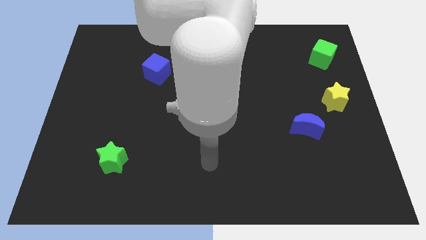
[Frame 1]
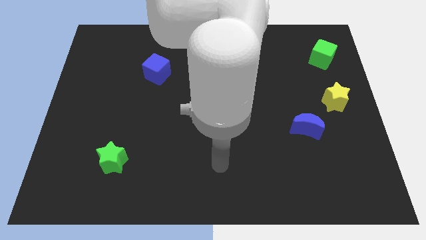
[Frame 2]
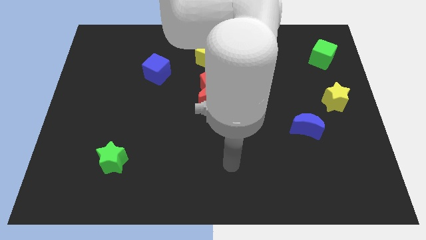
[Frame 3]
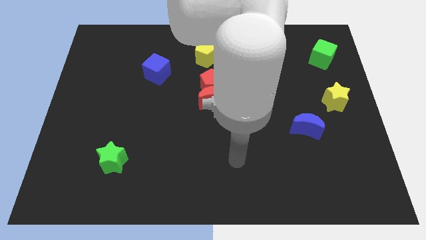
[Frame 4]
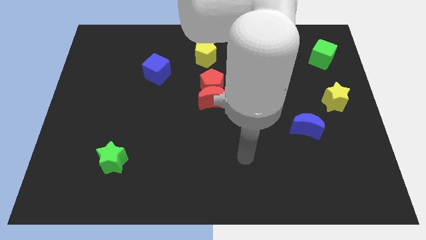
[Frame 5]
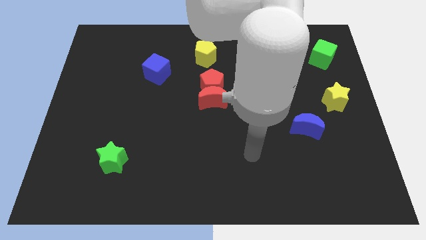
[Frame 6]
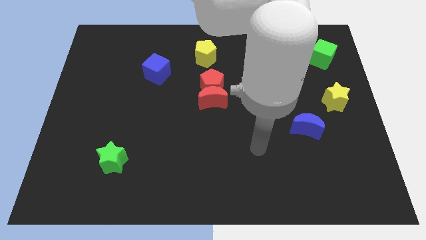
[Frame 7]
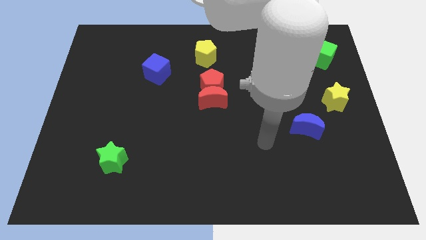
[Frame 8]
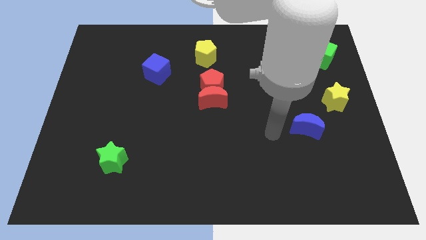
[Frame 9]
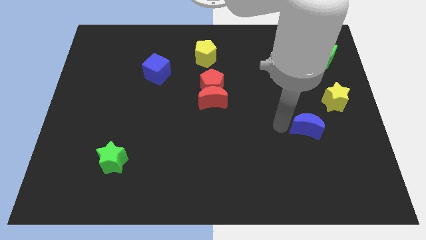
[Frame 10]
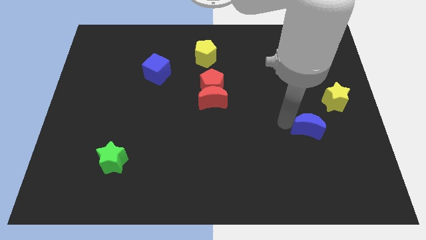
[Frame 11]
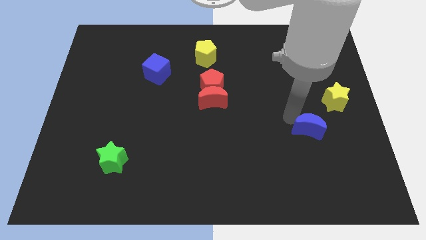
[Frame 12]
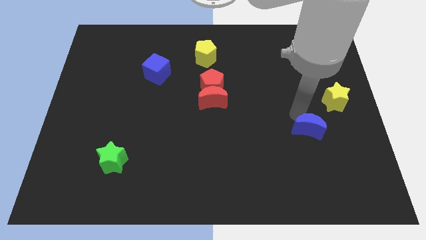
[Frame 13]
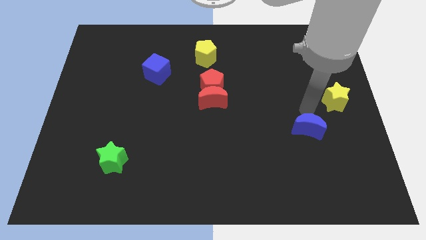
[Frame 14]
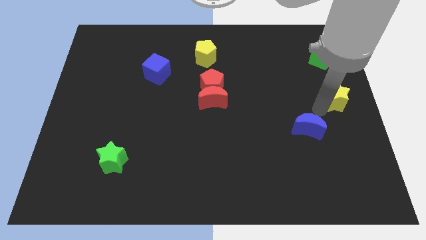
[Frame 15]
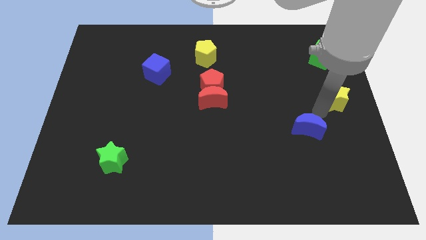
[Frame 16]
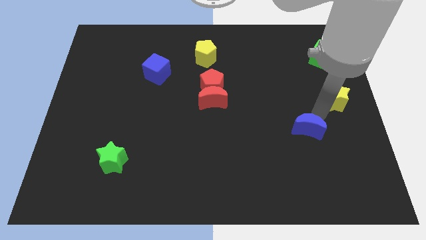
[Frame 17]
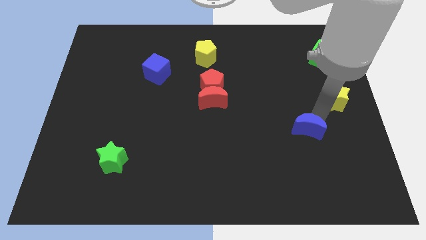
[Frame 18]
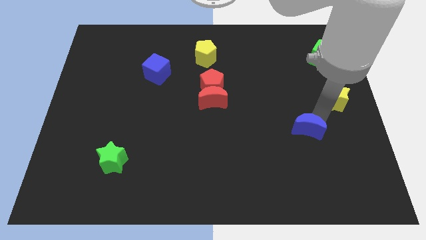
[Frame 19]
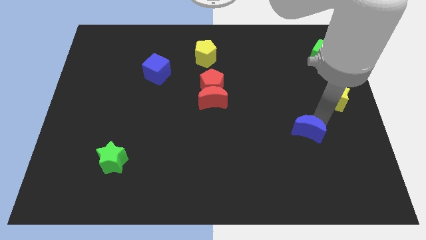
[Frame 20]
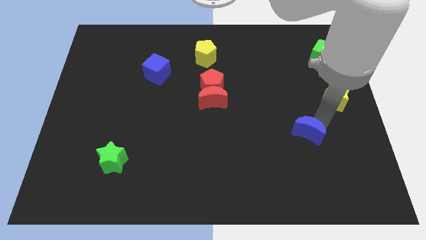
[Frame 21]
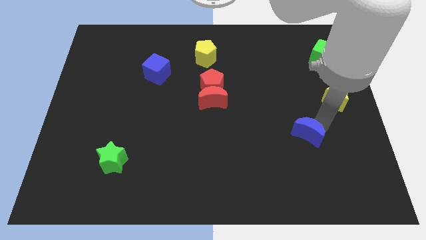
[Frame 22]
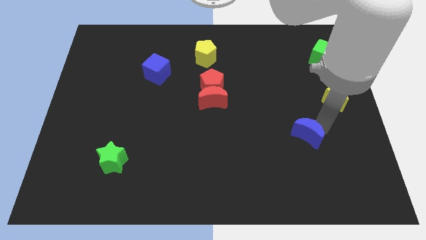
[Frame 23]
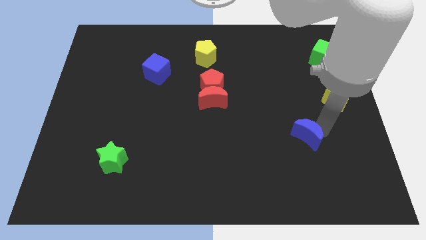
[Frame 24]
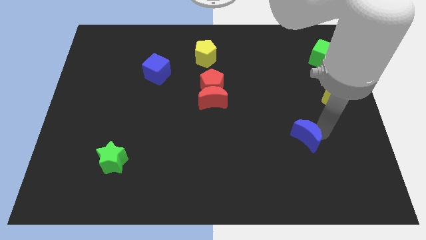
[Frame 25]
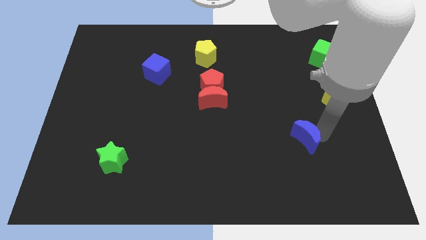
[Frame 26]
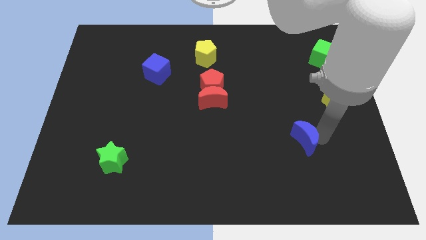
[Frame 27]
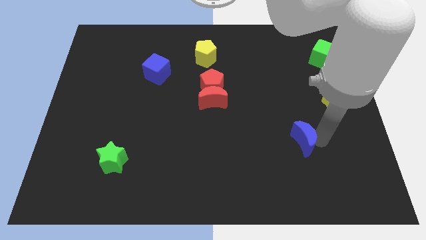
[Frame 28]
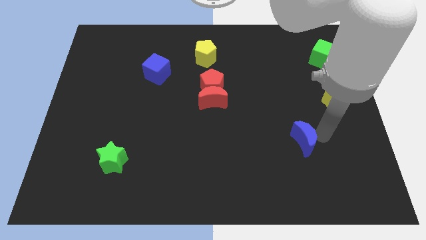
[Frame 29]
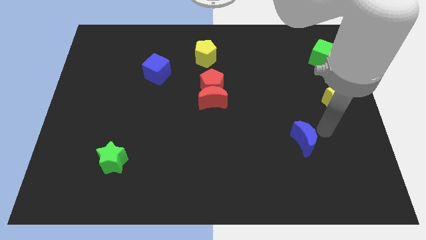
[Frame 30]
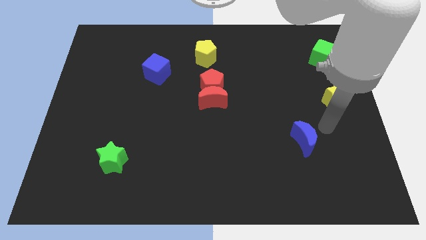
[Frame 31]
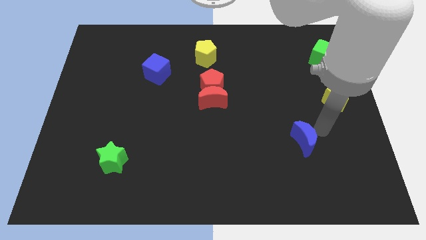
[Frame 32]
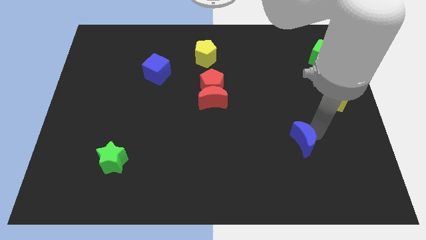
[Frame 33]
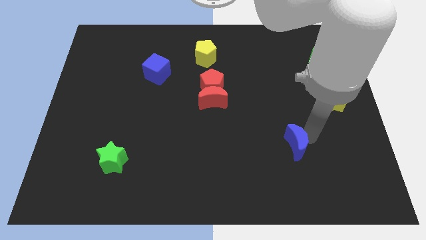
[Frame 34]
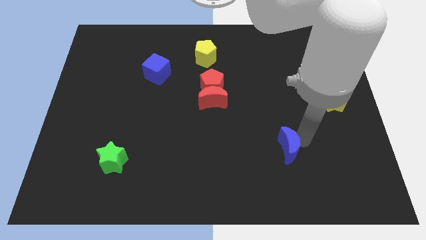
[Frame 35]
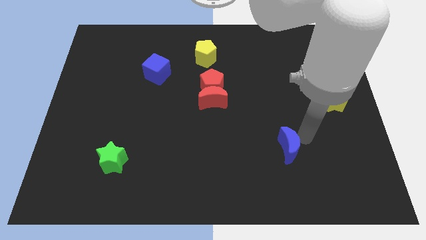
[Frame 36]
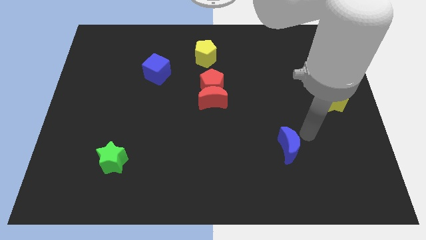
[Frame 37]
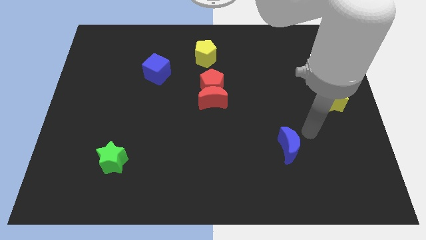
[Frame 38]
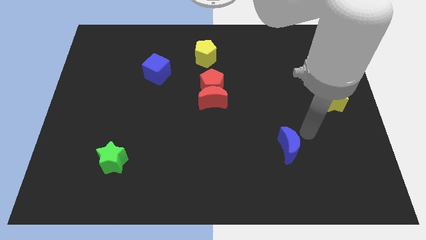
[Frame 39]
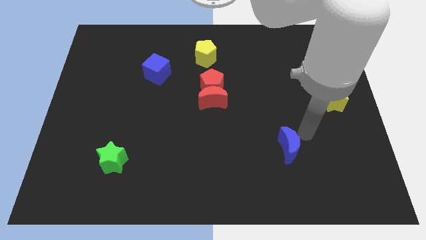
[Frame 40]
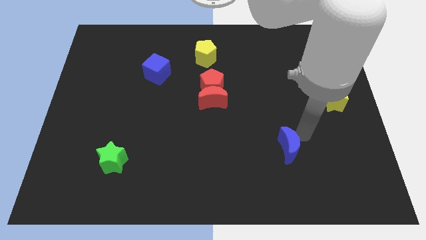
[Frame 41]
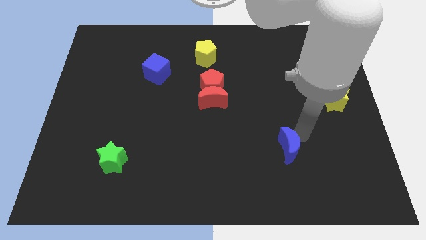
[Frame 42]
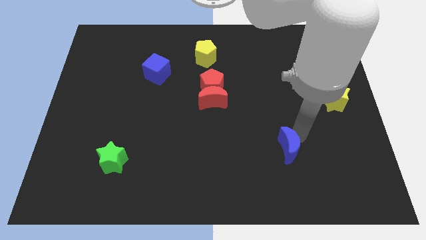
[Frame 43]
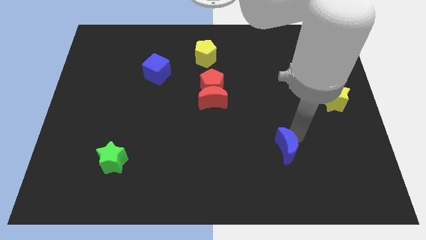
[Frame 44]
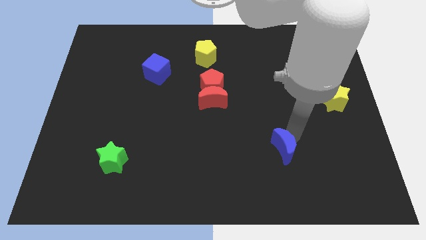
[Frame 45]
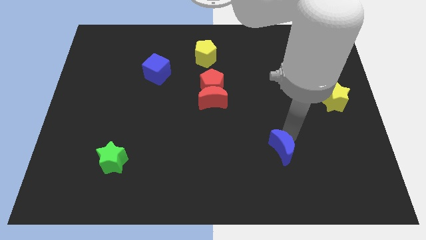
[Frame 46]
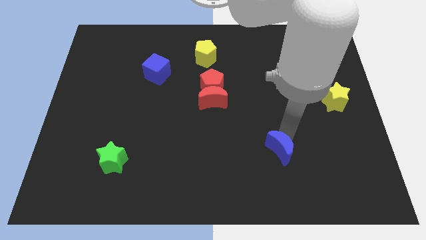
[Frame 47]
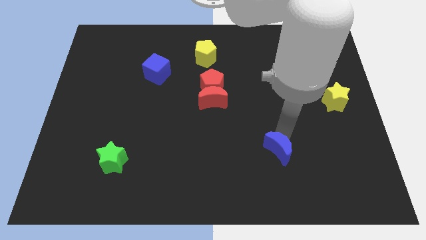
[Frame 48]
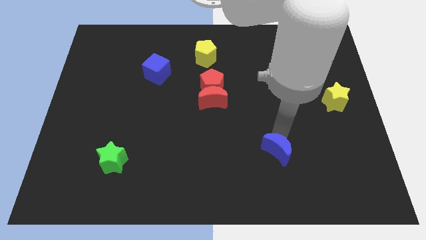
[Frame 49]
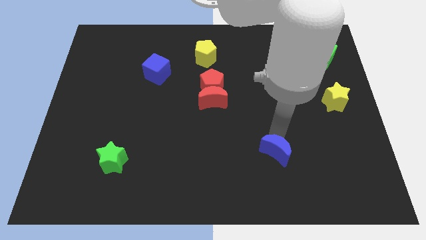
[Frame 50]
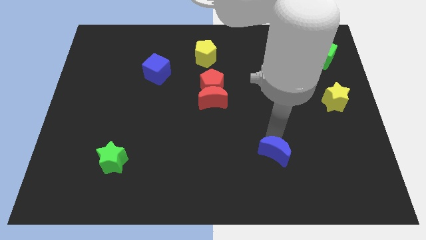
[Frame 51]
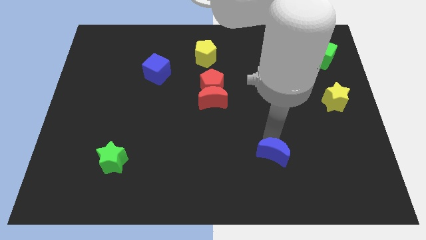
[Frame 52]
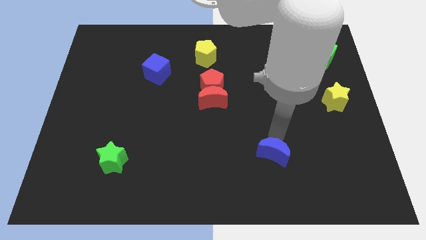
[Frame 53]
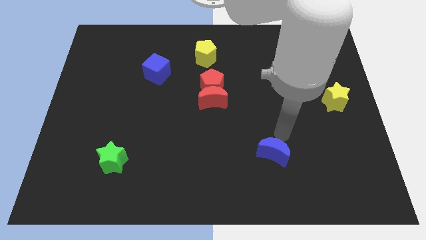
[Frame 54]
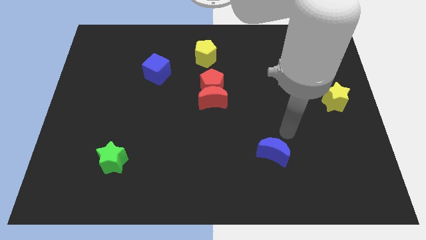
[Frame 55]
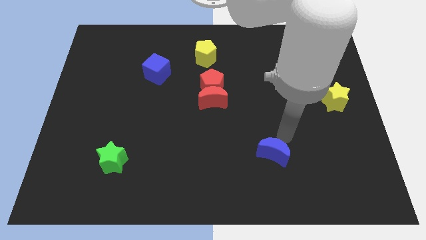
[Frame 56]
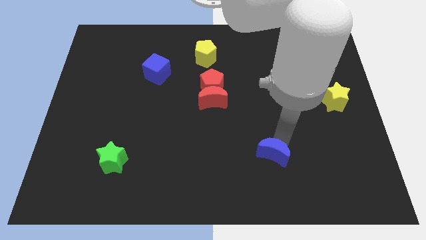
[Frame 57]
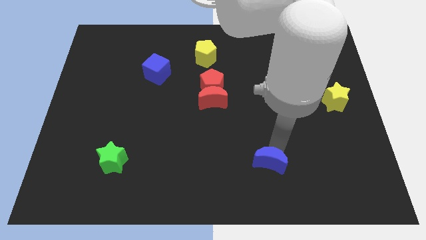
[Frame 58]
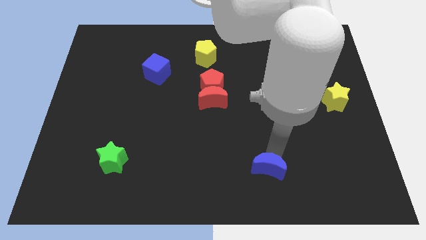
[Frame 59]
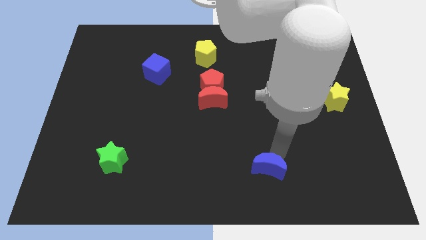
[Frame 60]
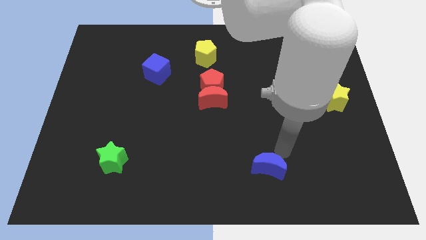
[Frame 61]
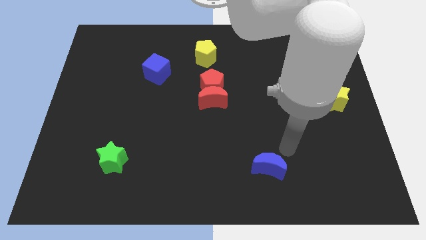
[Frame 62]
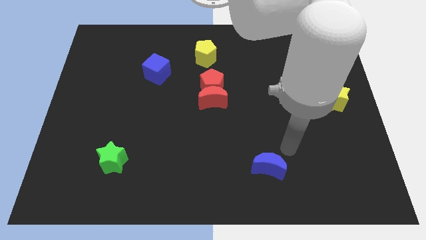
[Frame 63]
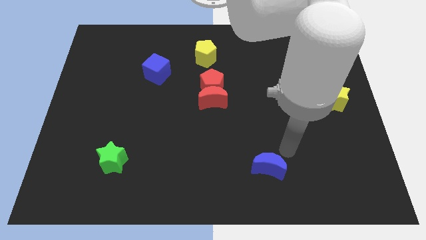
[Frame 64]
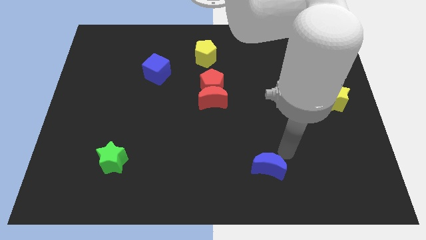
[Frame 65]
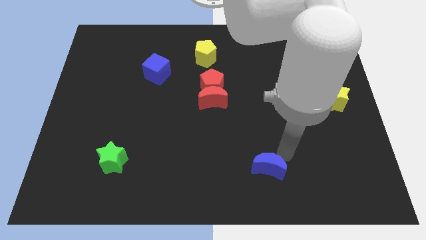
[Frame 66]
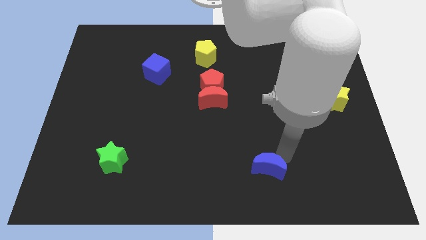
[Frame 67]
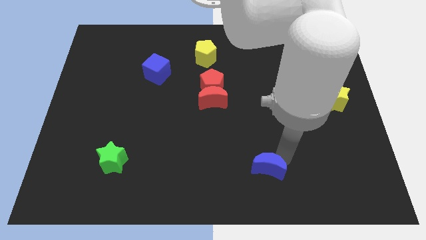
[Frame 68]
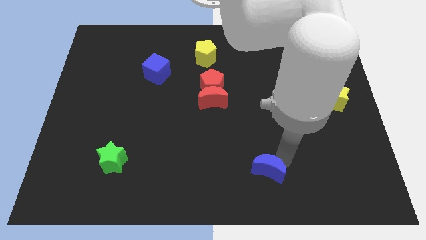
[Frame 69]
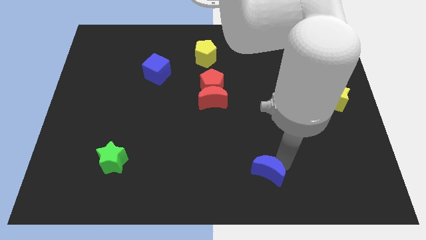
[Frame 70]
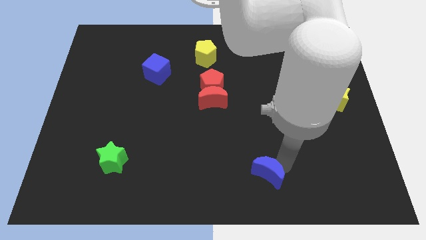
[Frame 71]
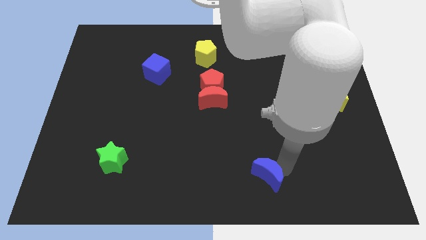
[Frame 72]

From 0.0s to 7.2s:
move the blue moon to the bottom
